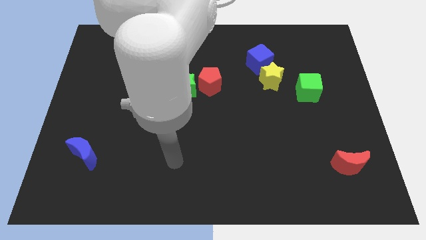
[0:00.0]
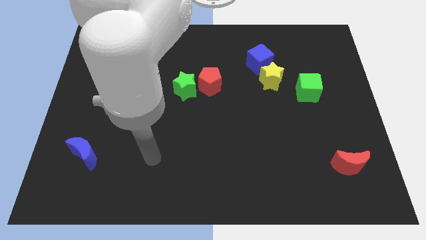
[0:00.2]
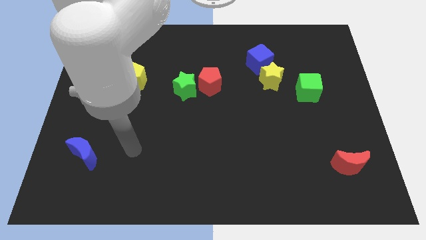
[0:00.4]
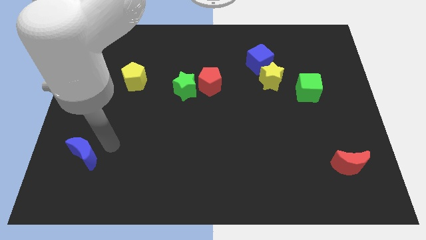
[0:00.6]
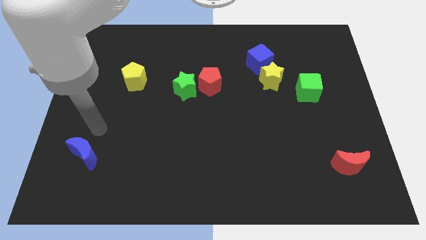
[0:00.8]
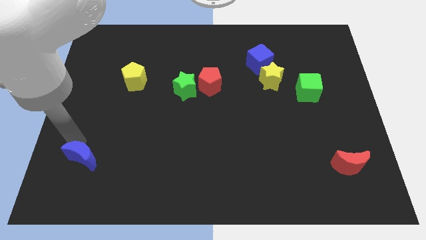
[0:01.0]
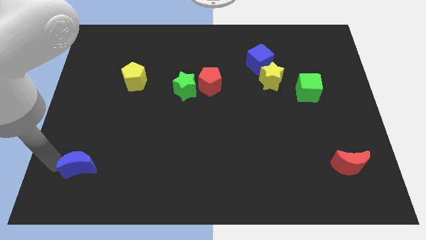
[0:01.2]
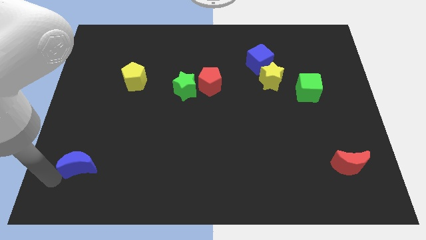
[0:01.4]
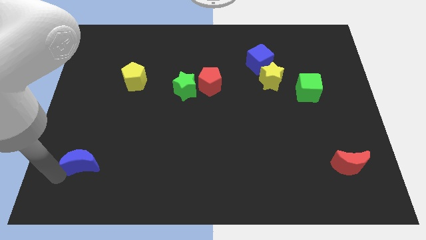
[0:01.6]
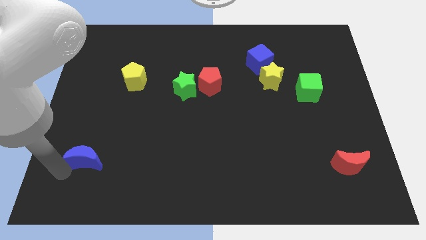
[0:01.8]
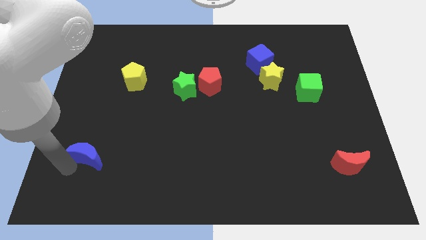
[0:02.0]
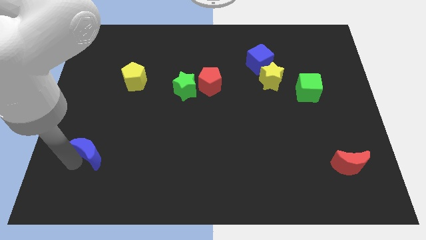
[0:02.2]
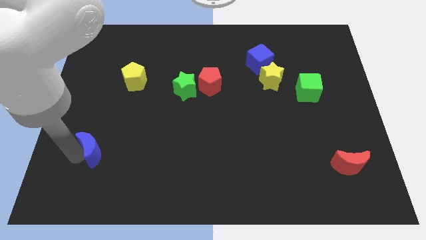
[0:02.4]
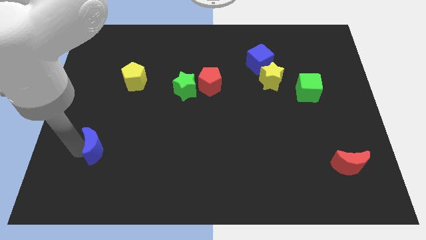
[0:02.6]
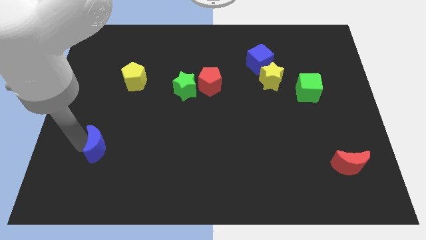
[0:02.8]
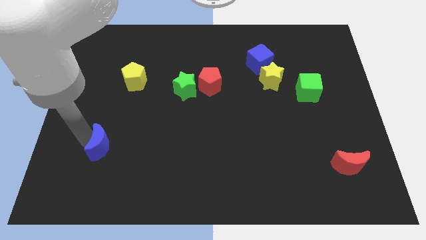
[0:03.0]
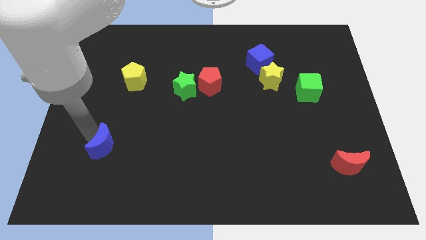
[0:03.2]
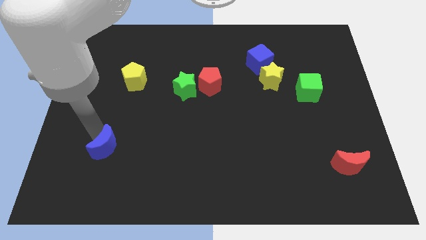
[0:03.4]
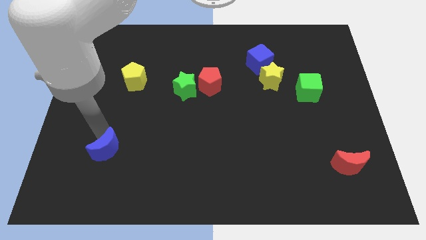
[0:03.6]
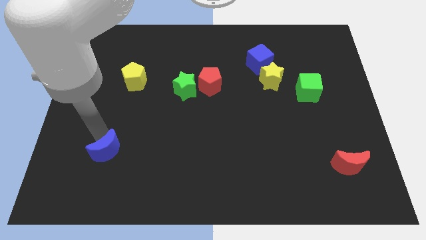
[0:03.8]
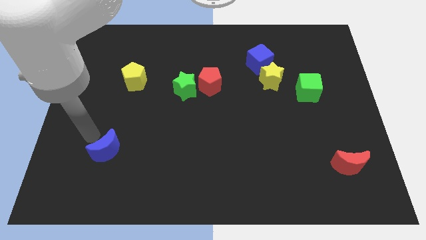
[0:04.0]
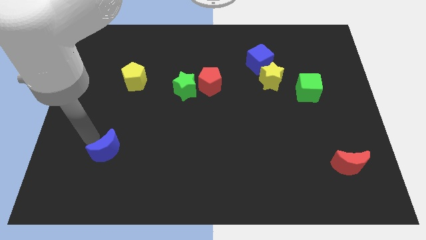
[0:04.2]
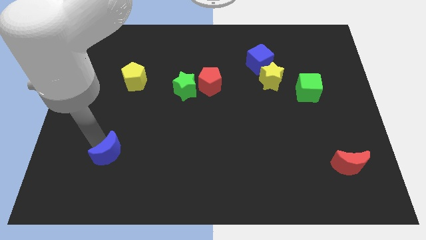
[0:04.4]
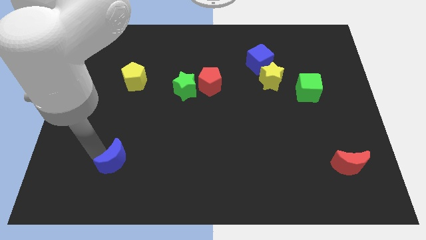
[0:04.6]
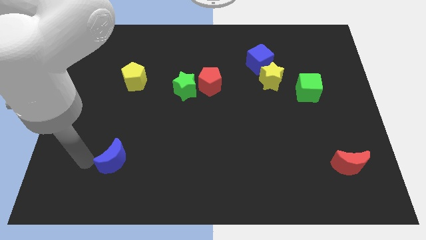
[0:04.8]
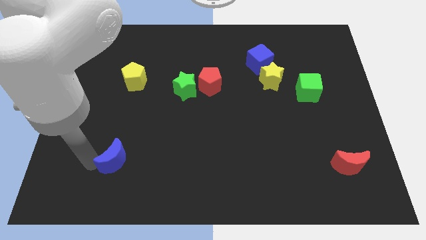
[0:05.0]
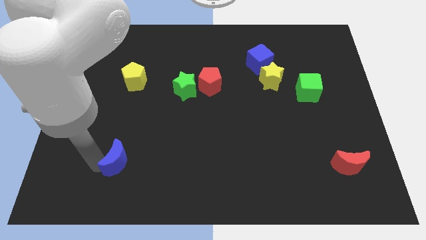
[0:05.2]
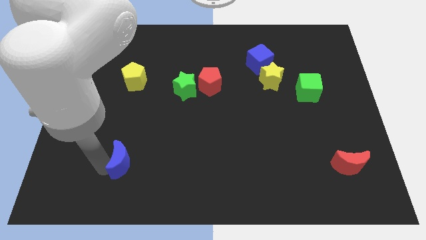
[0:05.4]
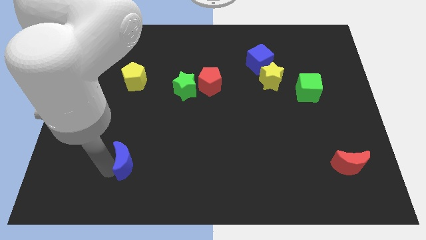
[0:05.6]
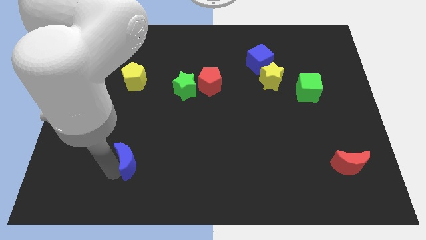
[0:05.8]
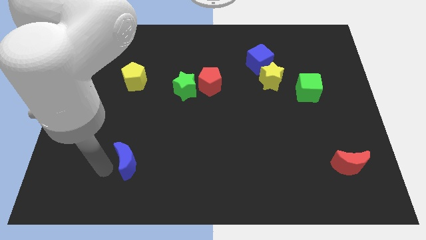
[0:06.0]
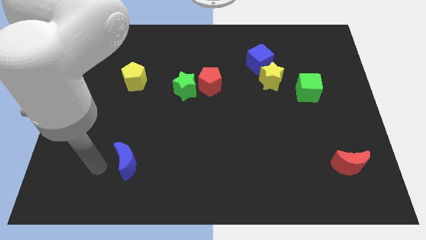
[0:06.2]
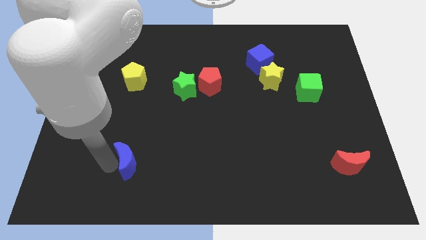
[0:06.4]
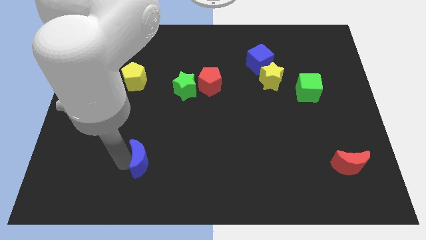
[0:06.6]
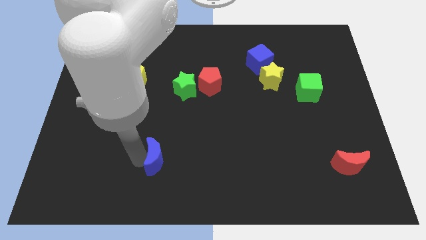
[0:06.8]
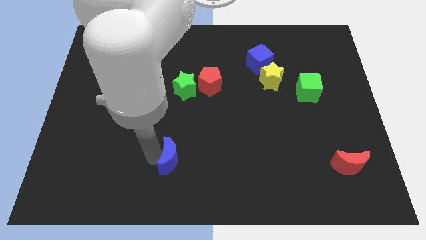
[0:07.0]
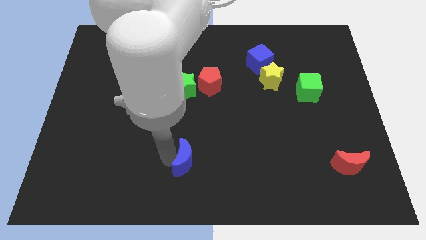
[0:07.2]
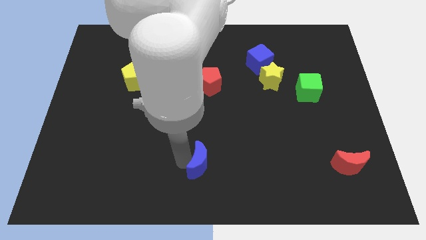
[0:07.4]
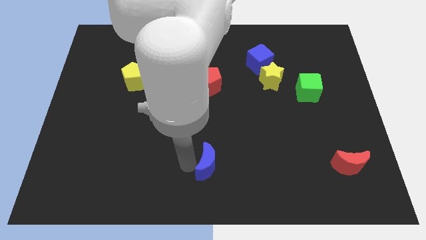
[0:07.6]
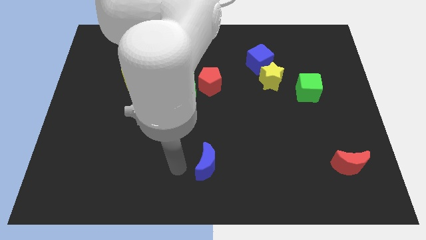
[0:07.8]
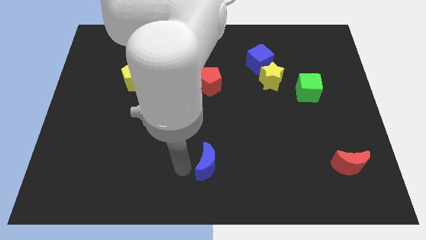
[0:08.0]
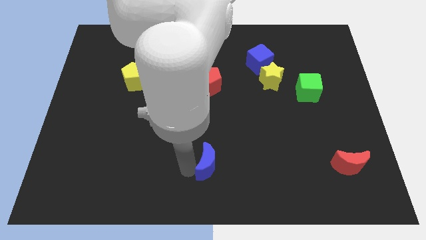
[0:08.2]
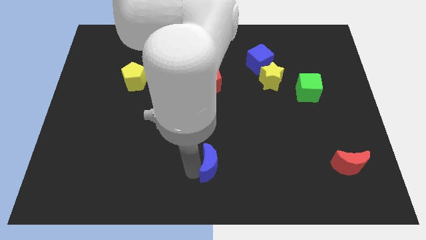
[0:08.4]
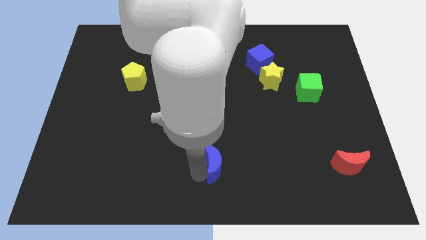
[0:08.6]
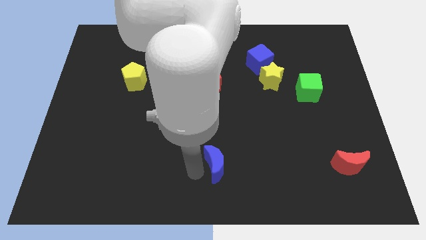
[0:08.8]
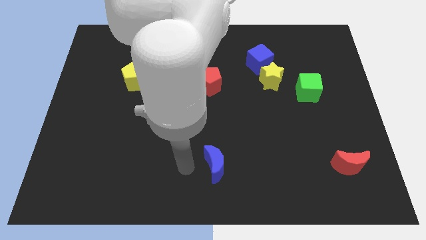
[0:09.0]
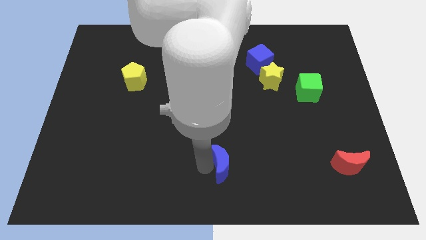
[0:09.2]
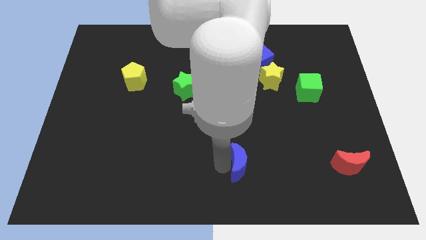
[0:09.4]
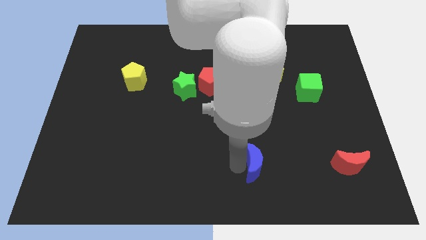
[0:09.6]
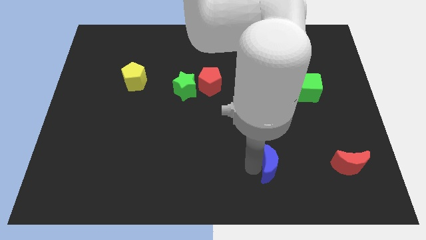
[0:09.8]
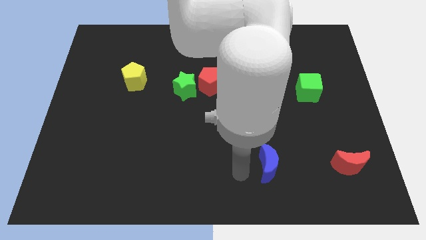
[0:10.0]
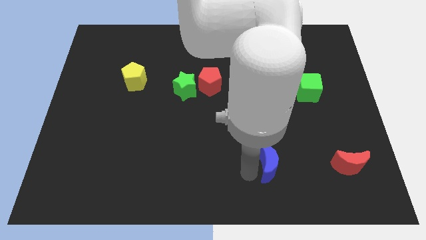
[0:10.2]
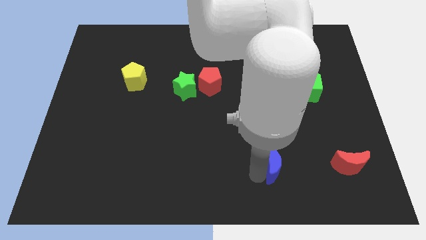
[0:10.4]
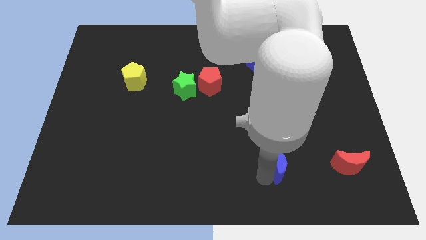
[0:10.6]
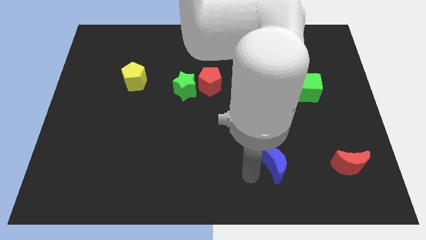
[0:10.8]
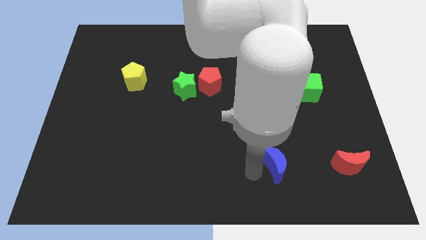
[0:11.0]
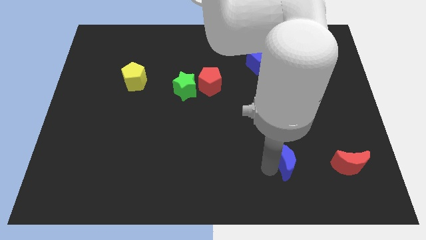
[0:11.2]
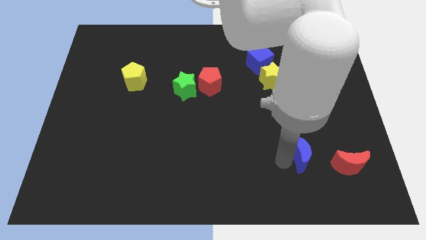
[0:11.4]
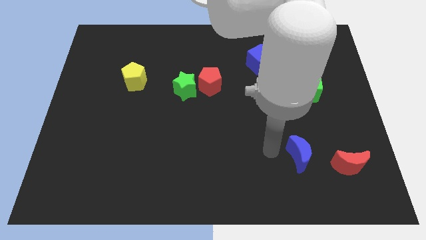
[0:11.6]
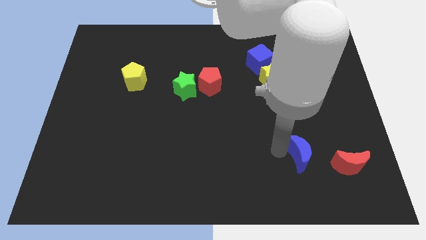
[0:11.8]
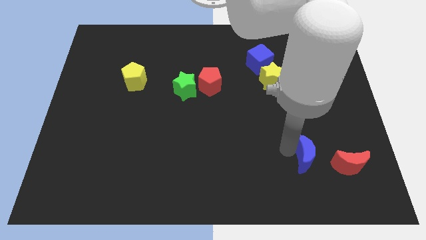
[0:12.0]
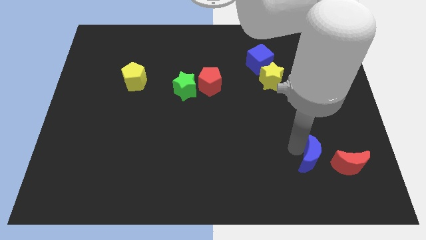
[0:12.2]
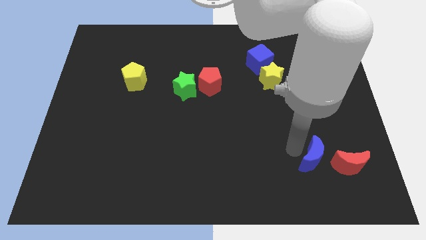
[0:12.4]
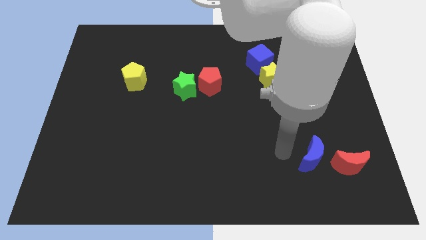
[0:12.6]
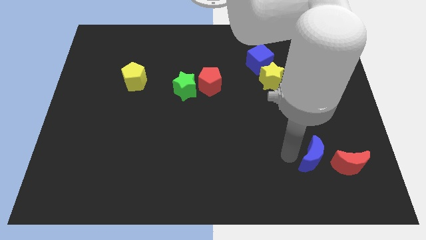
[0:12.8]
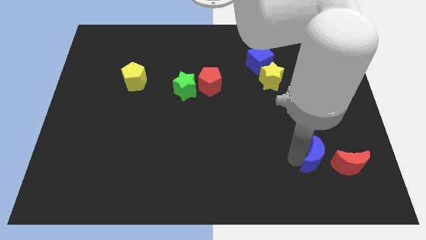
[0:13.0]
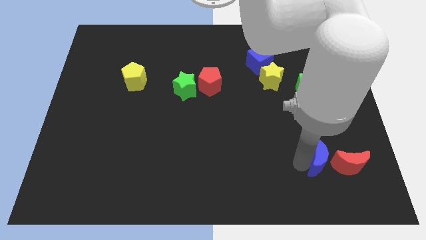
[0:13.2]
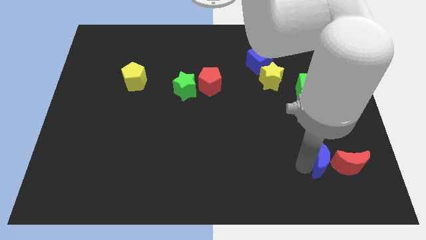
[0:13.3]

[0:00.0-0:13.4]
move the blue moon towards the red moon
